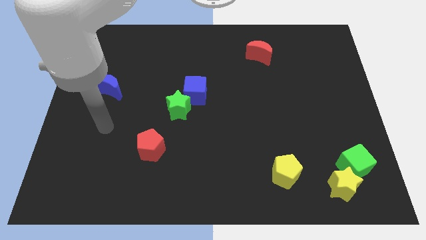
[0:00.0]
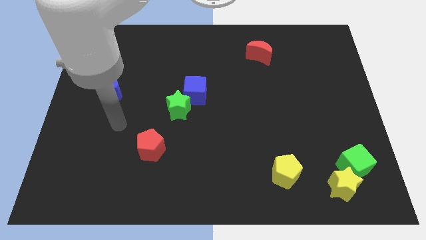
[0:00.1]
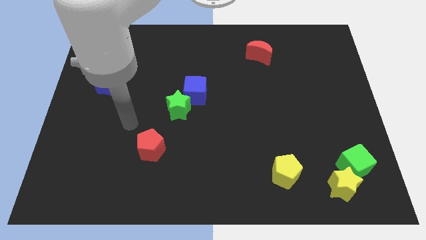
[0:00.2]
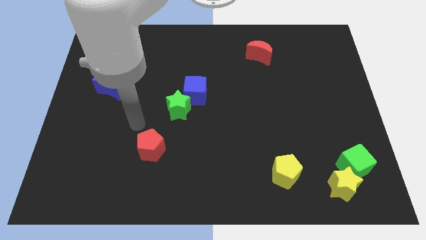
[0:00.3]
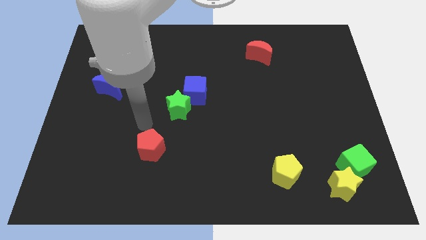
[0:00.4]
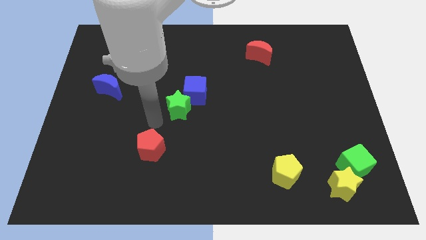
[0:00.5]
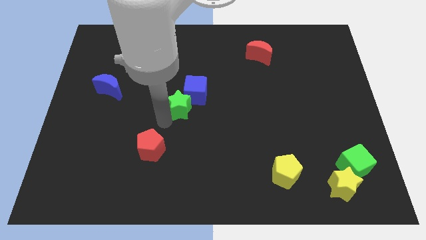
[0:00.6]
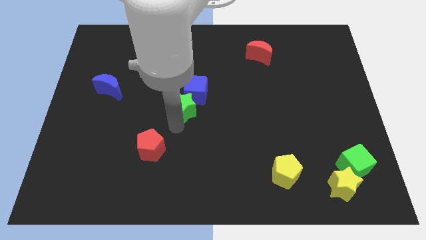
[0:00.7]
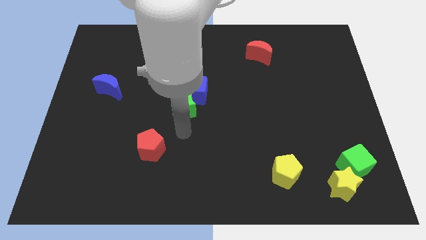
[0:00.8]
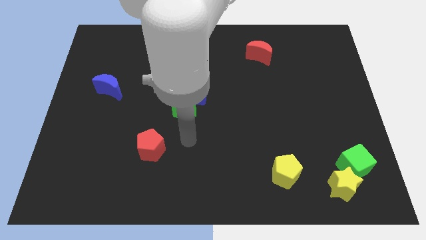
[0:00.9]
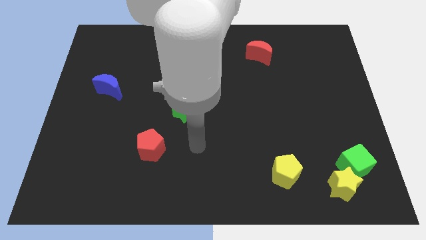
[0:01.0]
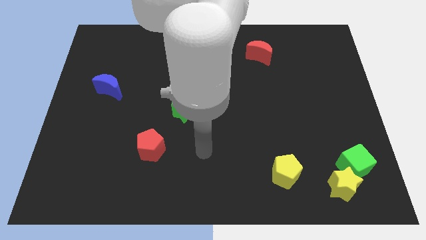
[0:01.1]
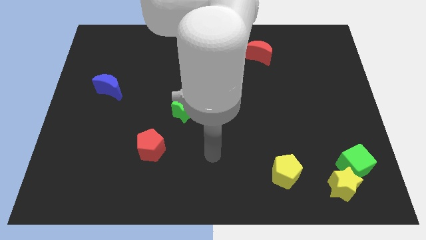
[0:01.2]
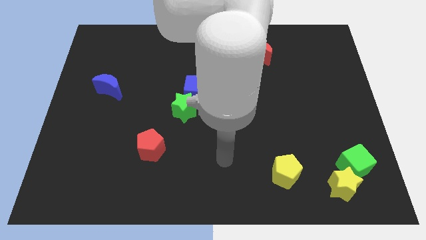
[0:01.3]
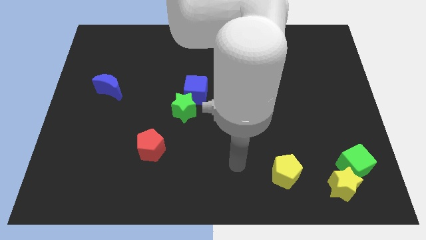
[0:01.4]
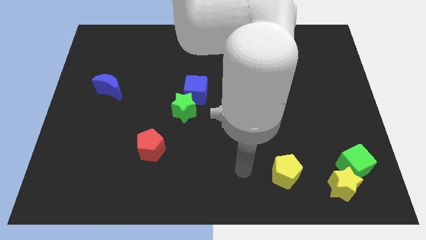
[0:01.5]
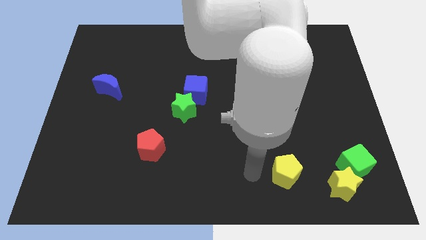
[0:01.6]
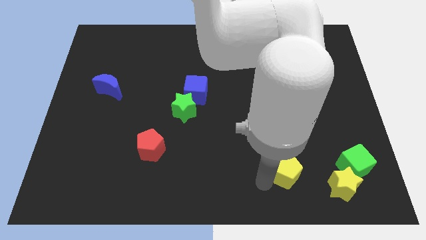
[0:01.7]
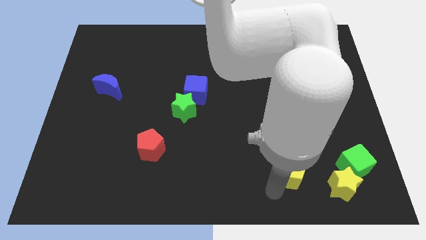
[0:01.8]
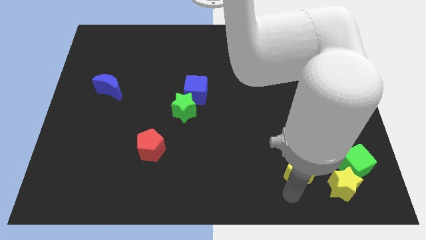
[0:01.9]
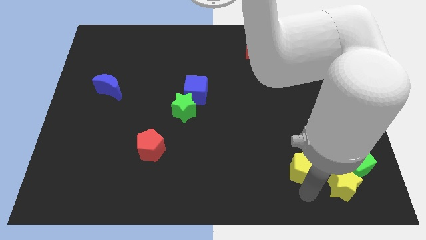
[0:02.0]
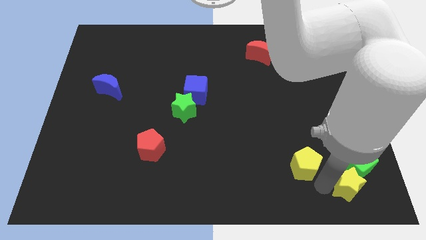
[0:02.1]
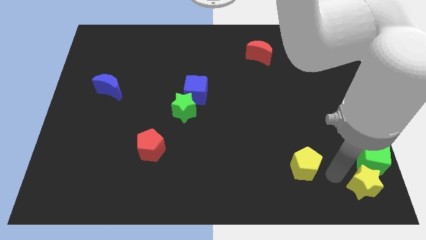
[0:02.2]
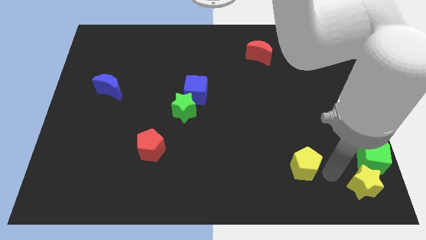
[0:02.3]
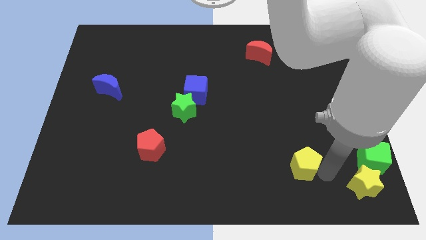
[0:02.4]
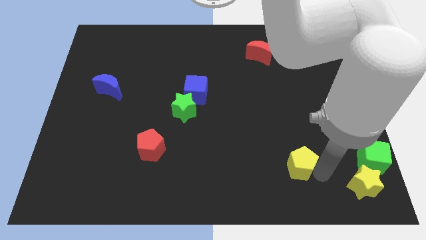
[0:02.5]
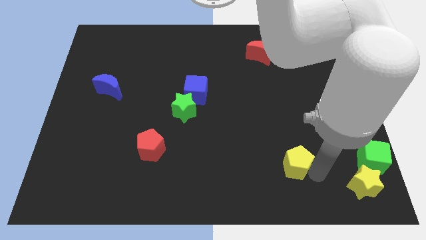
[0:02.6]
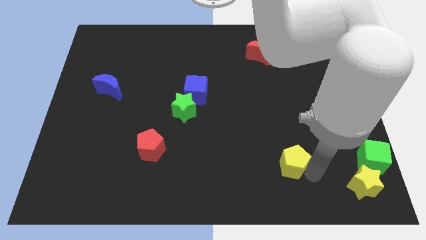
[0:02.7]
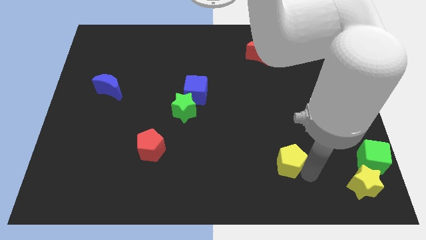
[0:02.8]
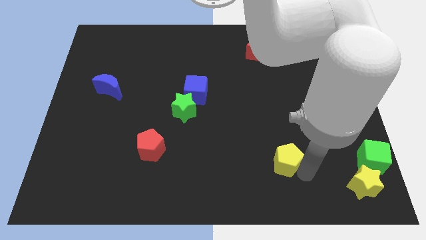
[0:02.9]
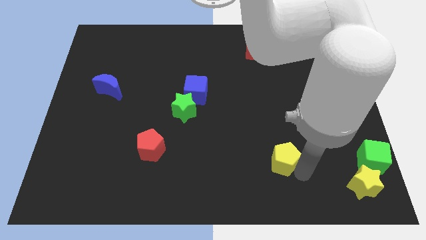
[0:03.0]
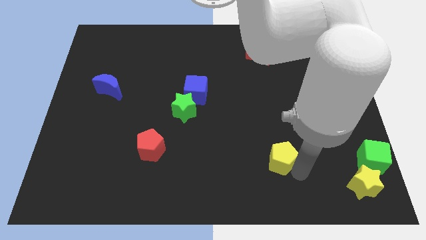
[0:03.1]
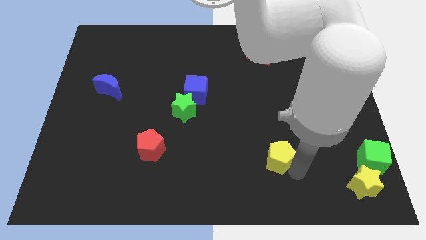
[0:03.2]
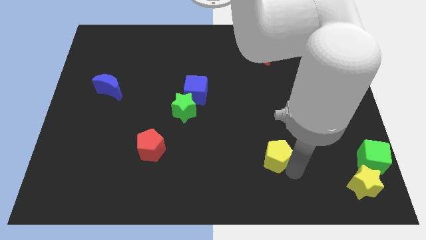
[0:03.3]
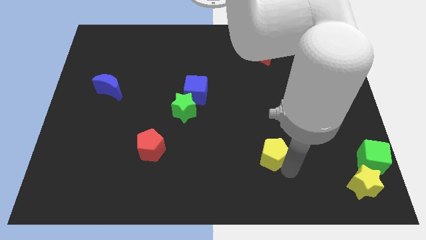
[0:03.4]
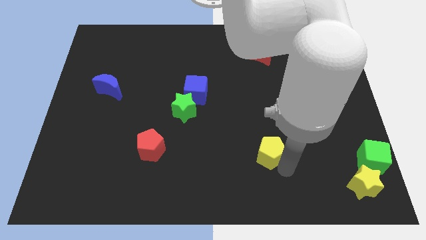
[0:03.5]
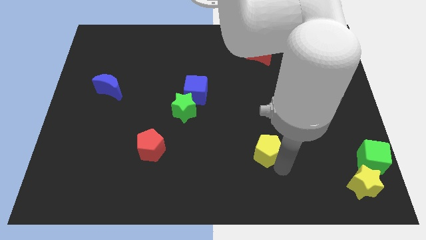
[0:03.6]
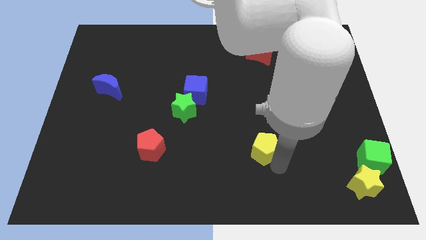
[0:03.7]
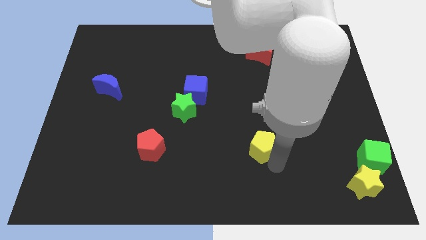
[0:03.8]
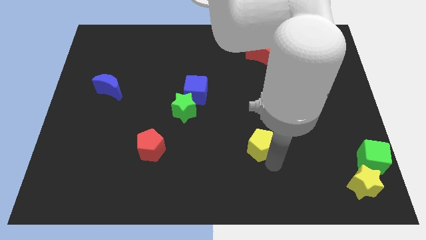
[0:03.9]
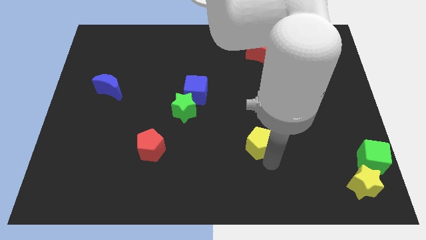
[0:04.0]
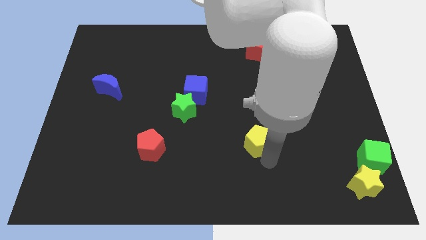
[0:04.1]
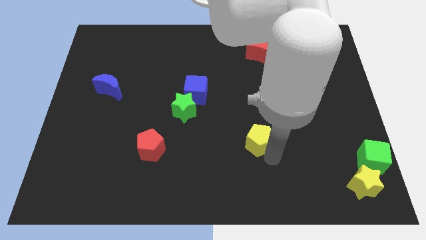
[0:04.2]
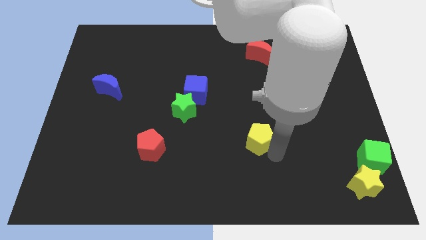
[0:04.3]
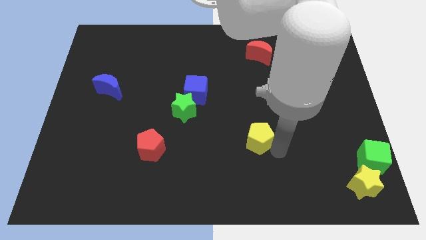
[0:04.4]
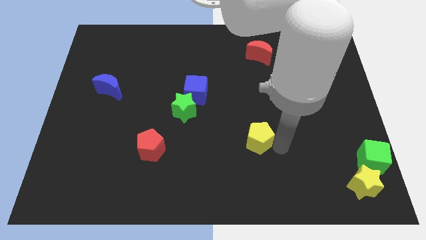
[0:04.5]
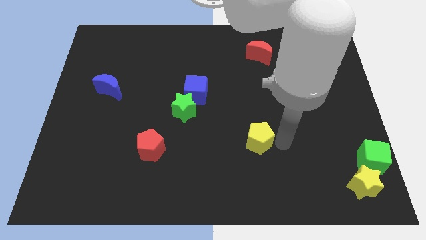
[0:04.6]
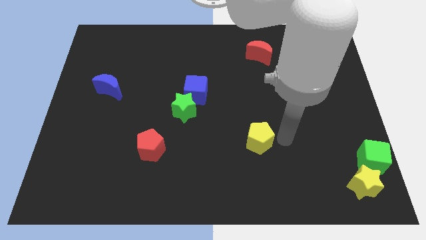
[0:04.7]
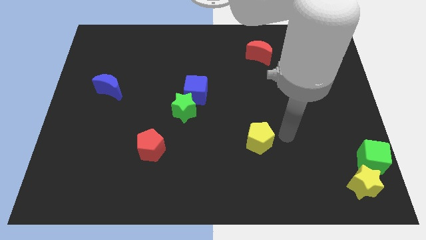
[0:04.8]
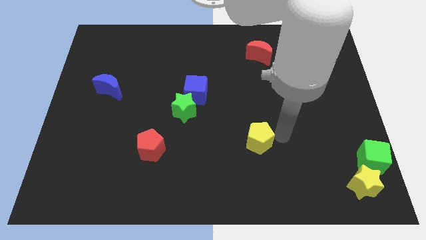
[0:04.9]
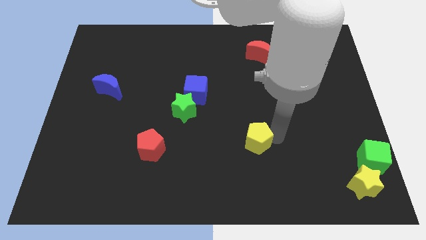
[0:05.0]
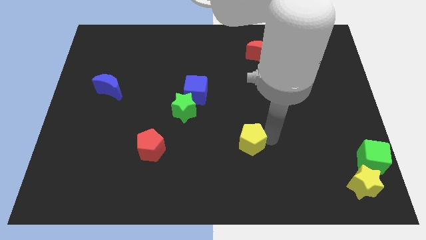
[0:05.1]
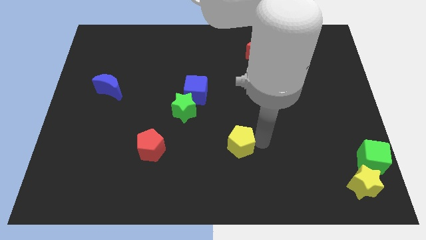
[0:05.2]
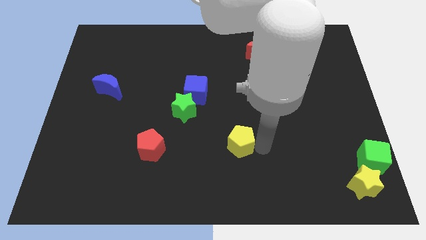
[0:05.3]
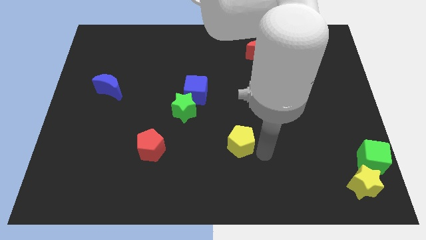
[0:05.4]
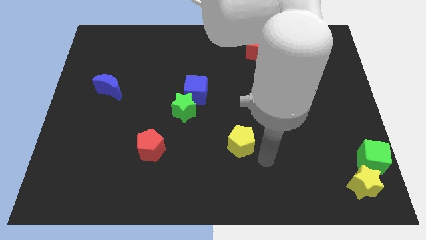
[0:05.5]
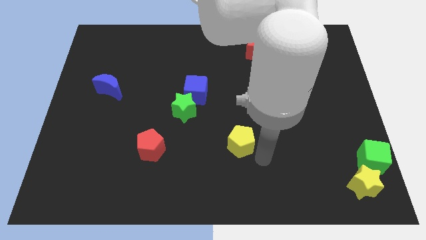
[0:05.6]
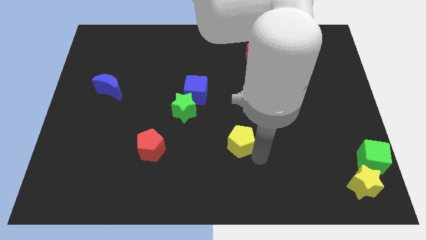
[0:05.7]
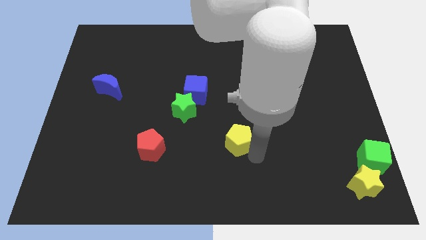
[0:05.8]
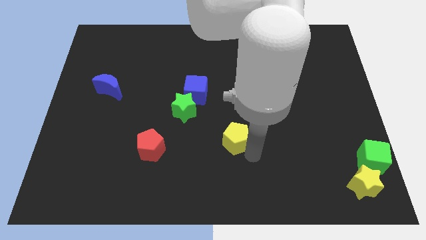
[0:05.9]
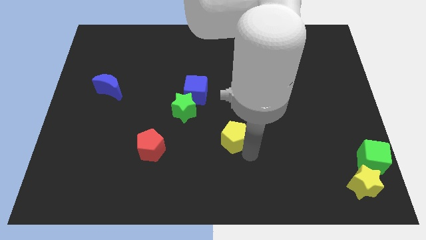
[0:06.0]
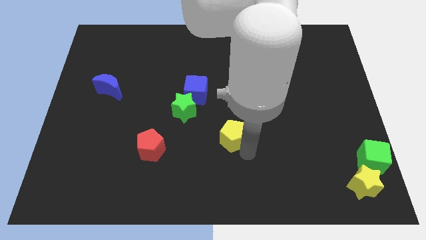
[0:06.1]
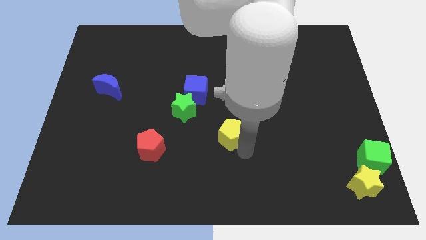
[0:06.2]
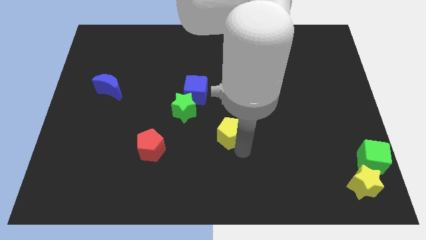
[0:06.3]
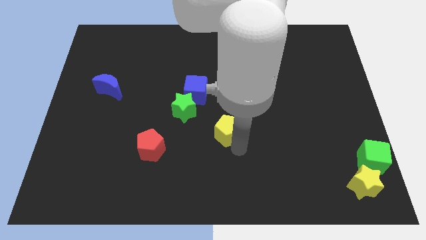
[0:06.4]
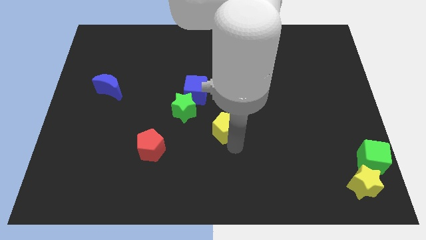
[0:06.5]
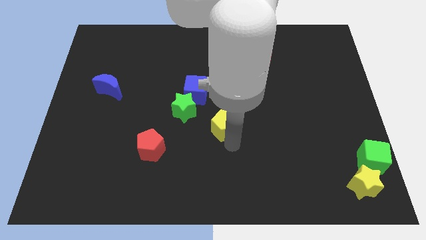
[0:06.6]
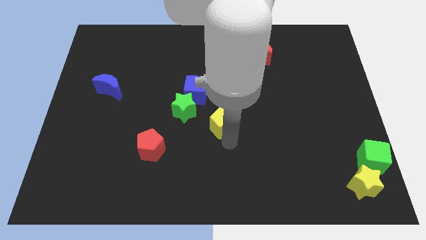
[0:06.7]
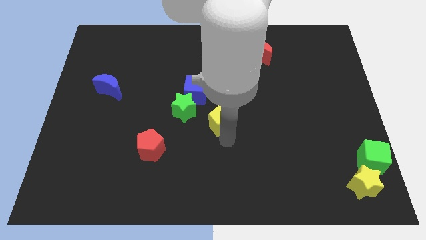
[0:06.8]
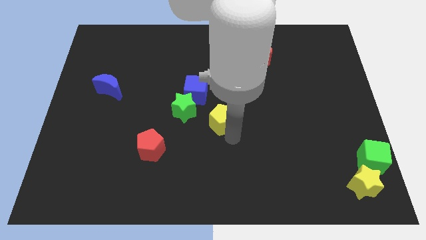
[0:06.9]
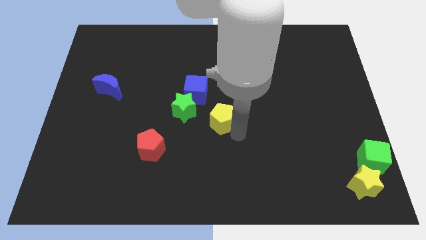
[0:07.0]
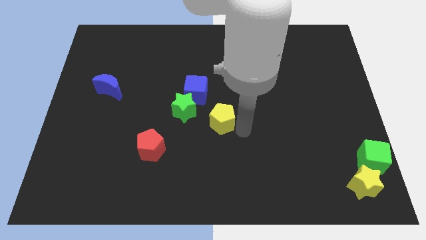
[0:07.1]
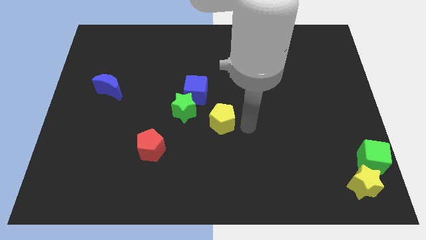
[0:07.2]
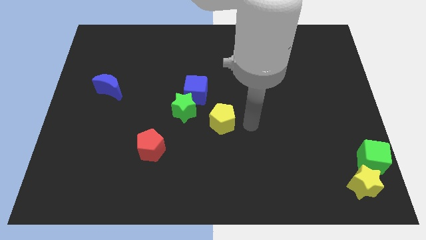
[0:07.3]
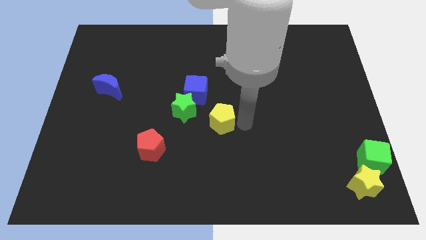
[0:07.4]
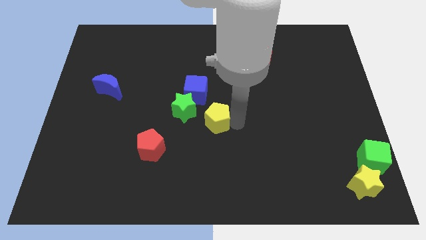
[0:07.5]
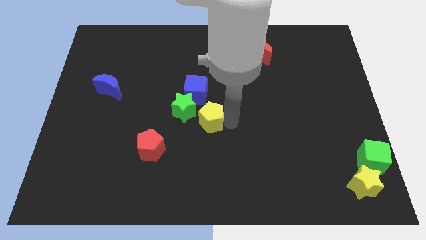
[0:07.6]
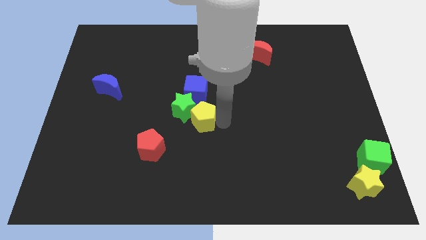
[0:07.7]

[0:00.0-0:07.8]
push the yellow pentagon next to the green star
